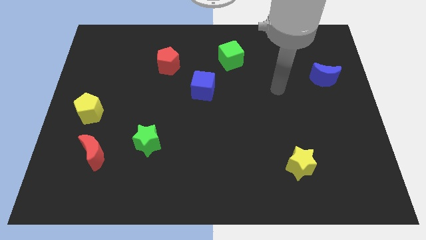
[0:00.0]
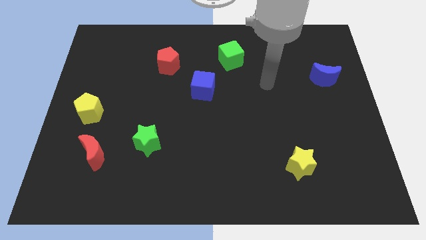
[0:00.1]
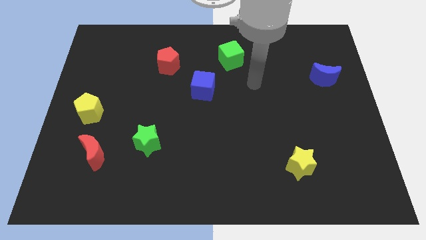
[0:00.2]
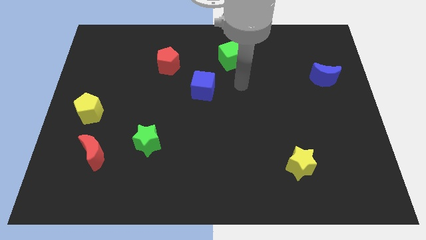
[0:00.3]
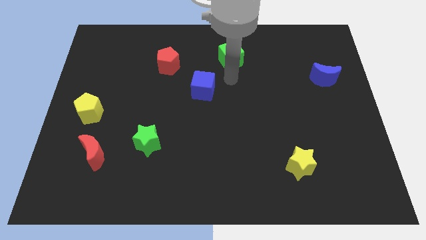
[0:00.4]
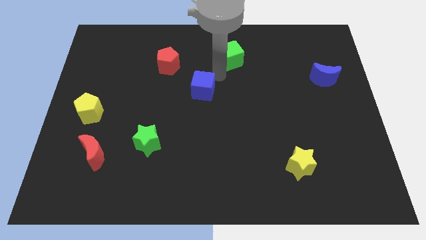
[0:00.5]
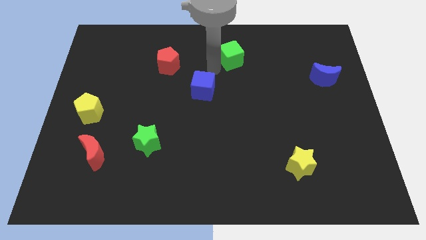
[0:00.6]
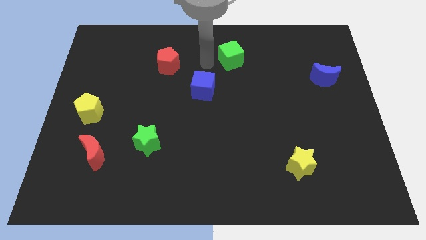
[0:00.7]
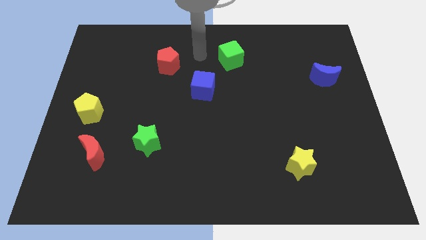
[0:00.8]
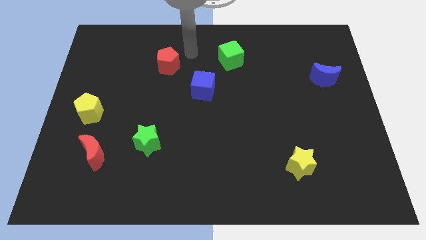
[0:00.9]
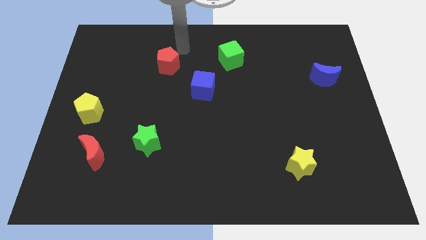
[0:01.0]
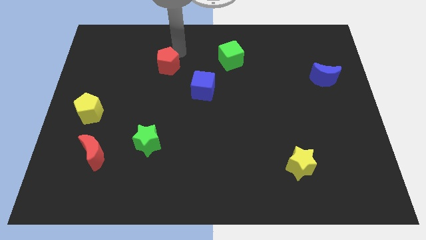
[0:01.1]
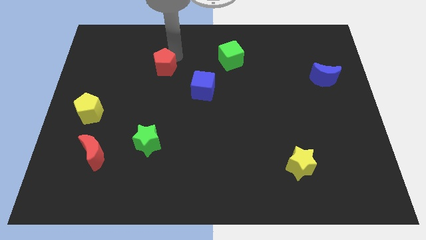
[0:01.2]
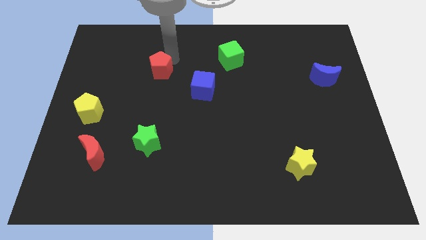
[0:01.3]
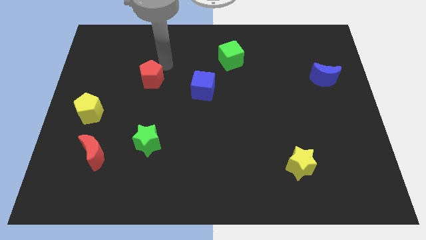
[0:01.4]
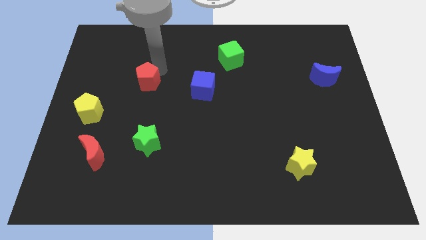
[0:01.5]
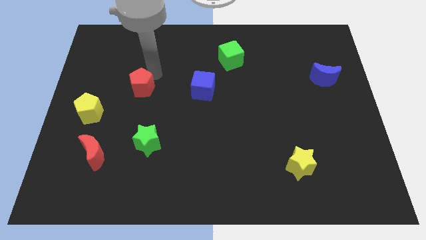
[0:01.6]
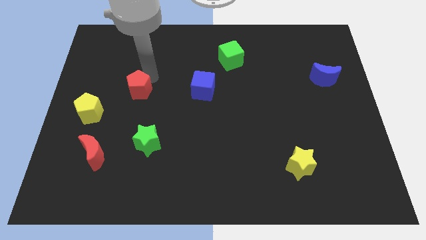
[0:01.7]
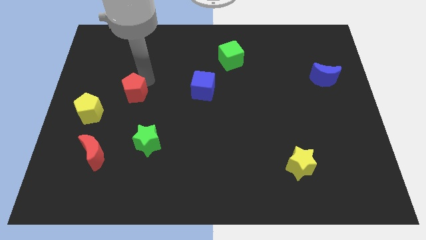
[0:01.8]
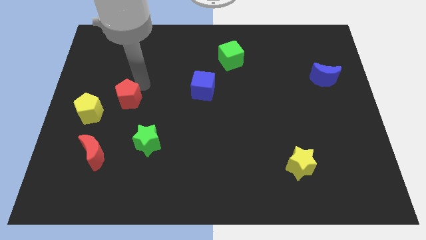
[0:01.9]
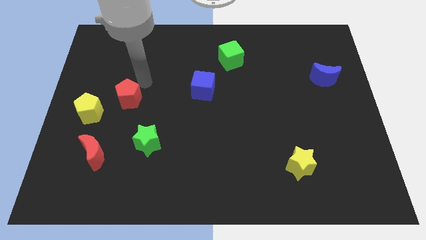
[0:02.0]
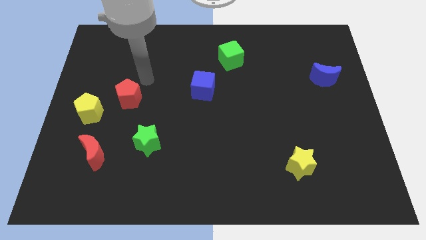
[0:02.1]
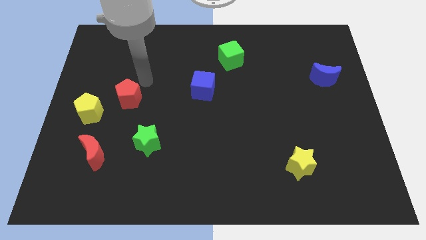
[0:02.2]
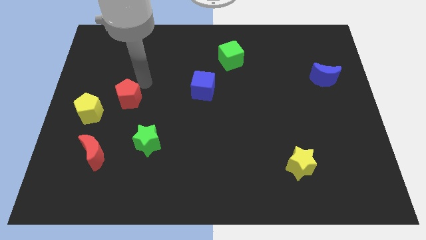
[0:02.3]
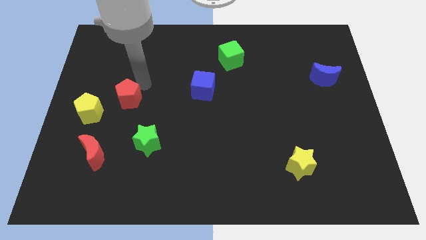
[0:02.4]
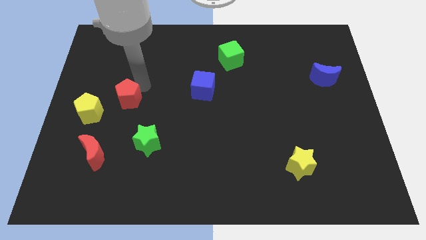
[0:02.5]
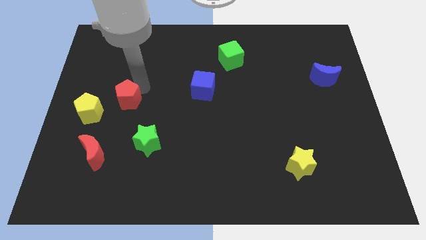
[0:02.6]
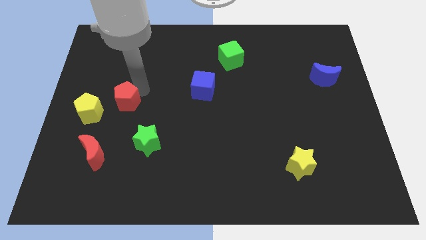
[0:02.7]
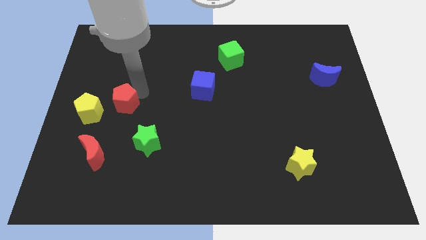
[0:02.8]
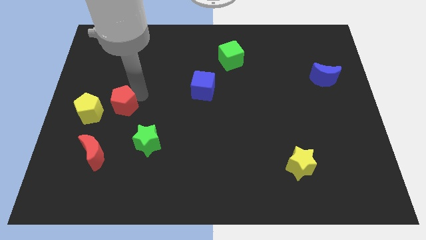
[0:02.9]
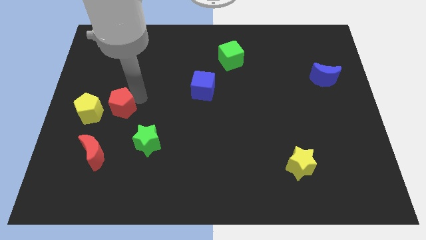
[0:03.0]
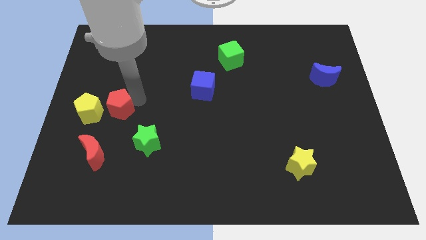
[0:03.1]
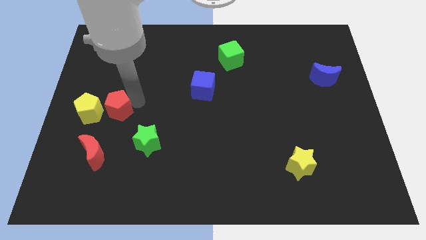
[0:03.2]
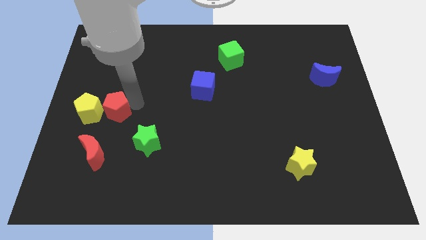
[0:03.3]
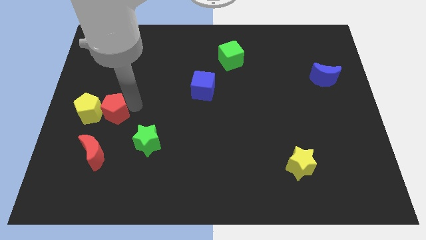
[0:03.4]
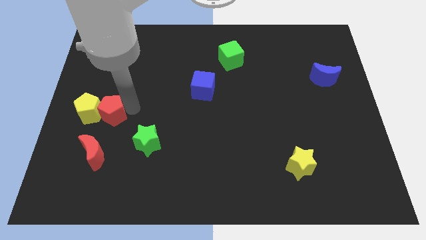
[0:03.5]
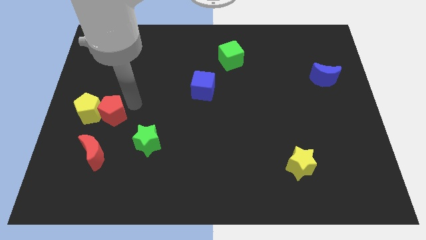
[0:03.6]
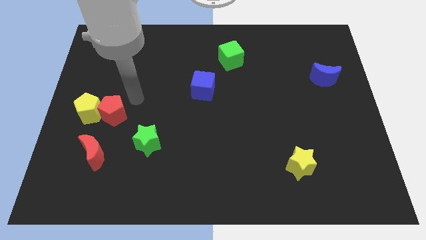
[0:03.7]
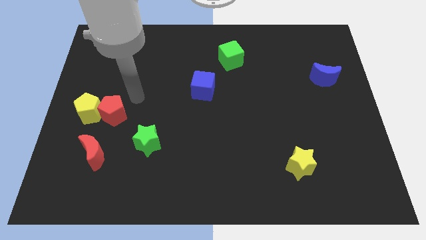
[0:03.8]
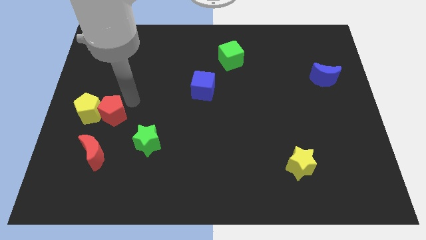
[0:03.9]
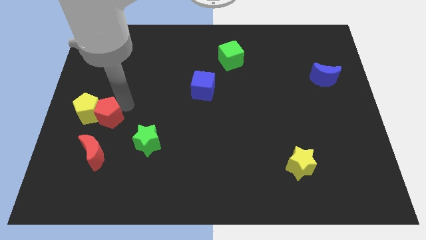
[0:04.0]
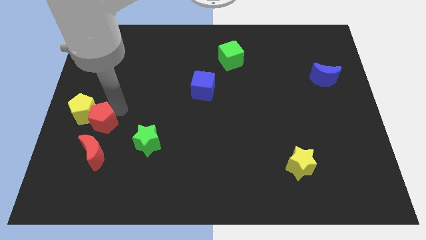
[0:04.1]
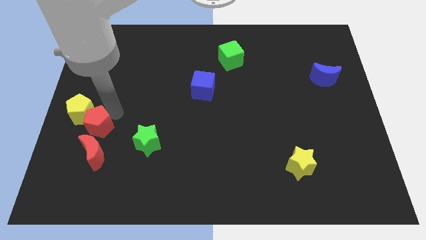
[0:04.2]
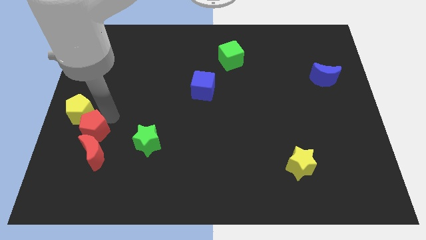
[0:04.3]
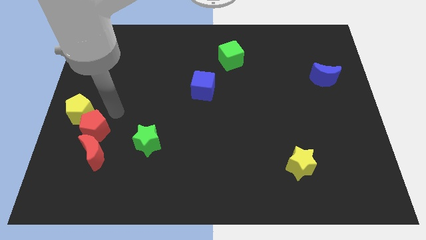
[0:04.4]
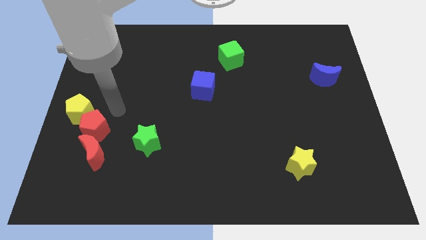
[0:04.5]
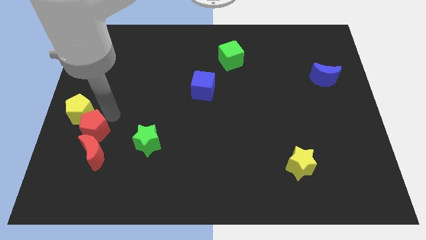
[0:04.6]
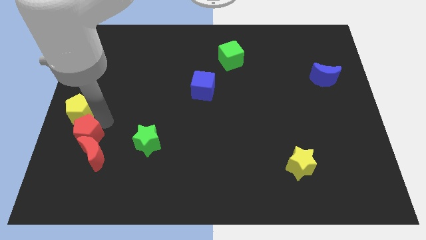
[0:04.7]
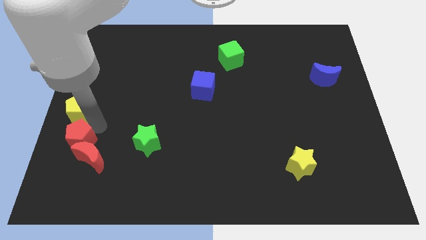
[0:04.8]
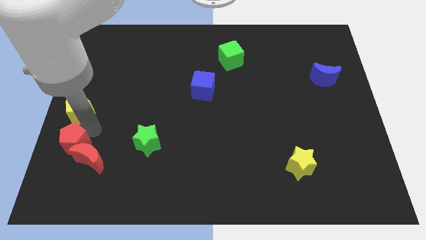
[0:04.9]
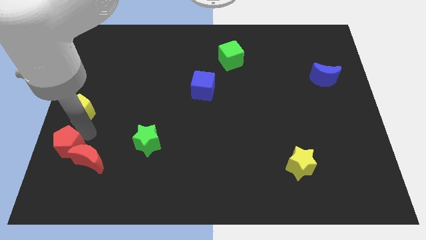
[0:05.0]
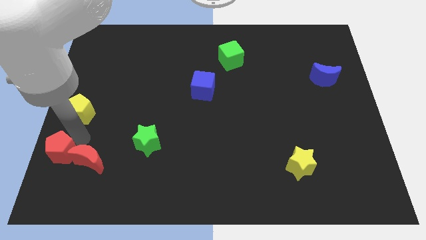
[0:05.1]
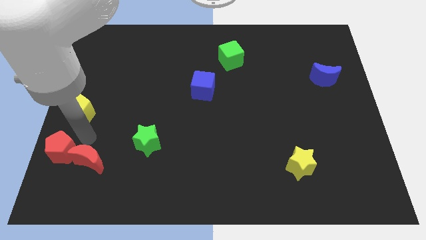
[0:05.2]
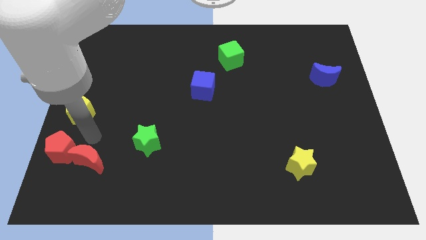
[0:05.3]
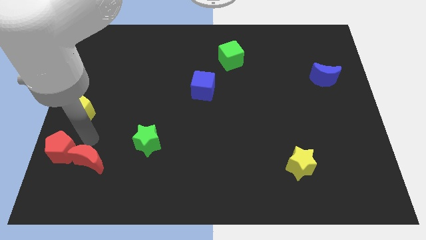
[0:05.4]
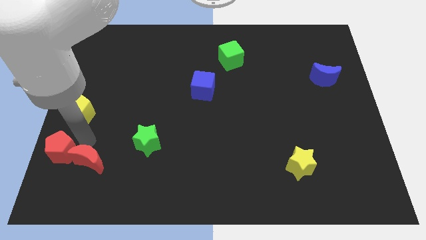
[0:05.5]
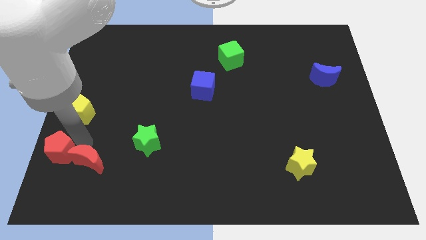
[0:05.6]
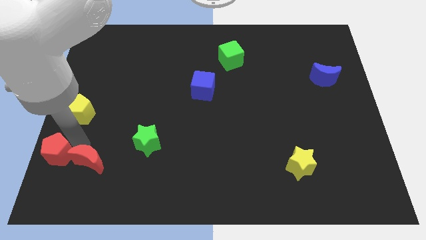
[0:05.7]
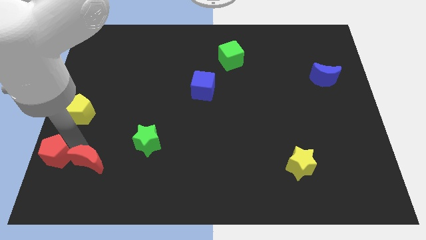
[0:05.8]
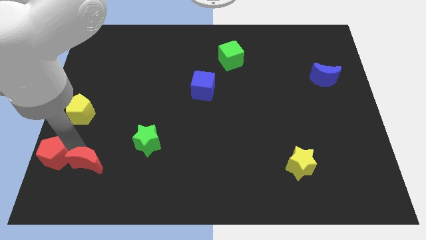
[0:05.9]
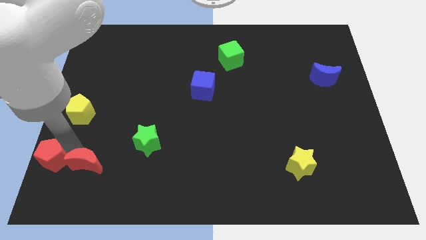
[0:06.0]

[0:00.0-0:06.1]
put the red pentagon to the bottom left corner
